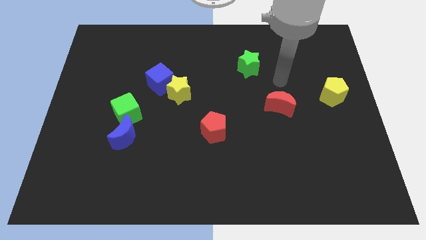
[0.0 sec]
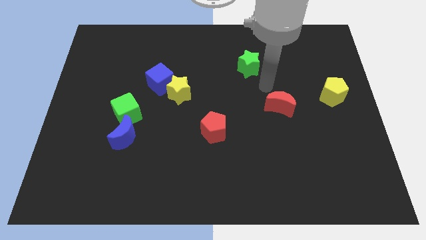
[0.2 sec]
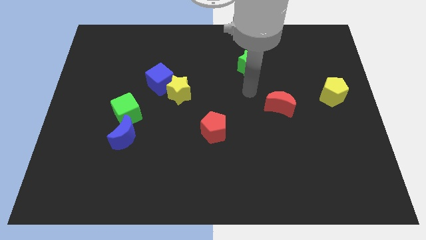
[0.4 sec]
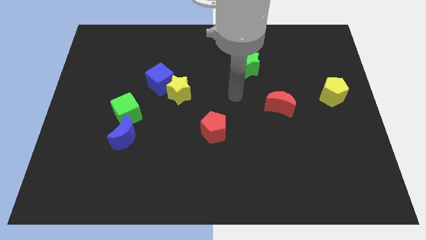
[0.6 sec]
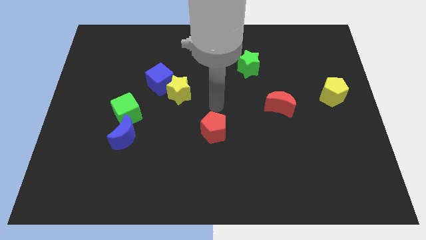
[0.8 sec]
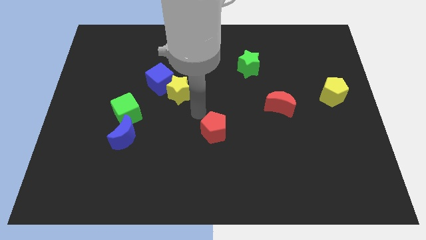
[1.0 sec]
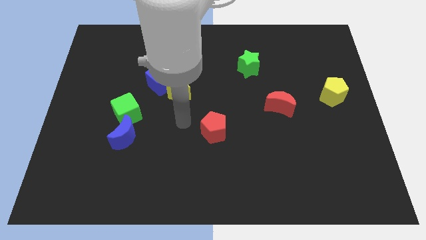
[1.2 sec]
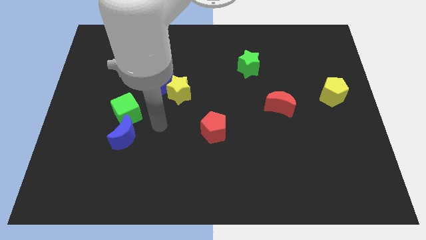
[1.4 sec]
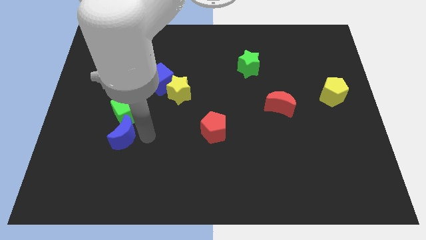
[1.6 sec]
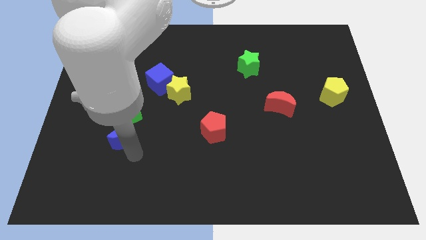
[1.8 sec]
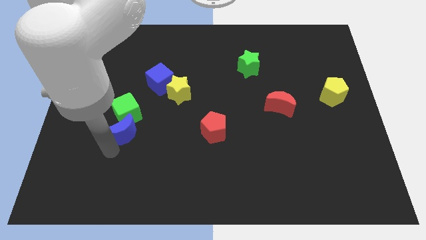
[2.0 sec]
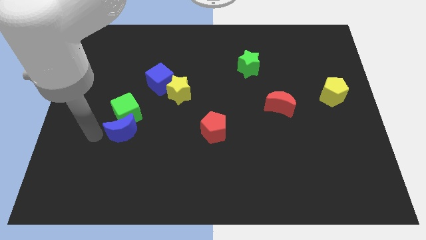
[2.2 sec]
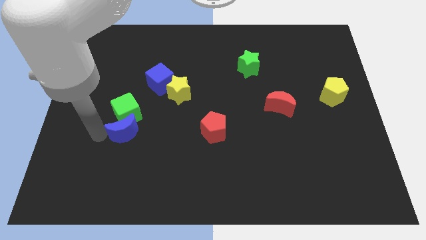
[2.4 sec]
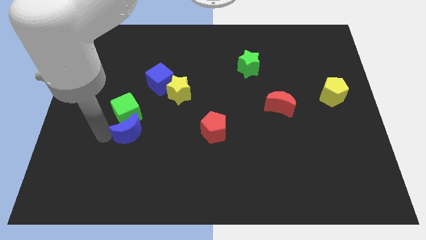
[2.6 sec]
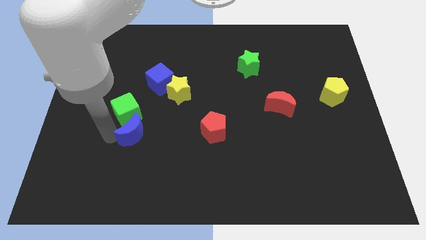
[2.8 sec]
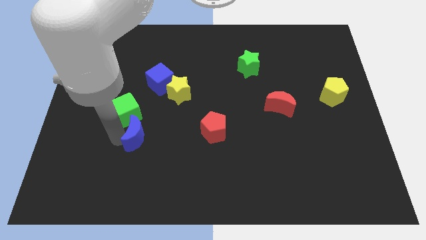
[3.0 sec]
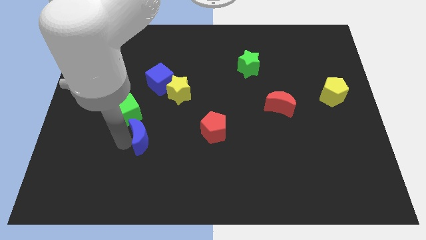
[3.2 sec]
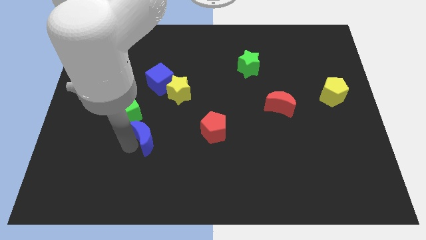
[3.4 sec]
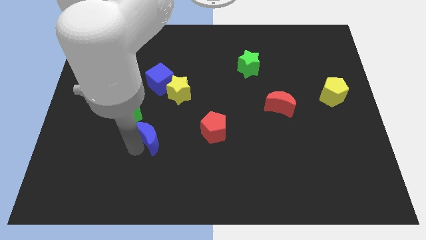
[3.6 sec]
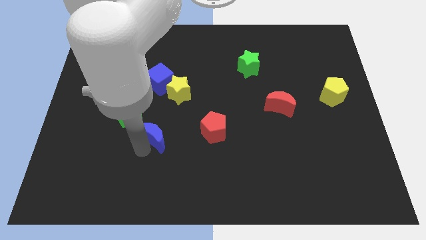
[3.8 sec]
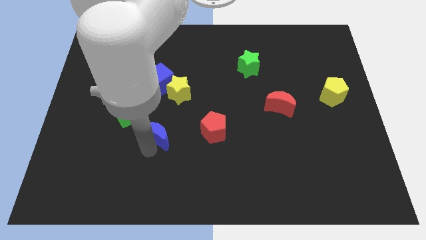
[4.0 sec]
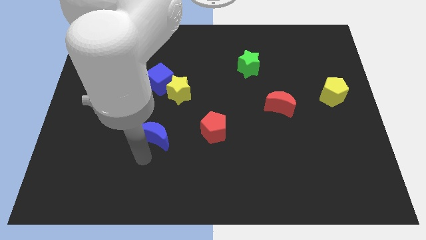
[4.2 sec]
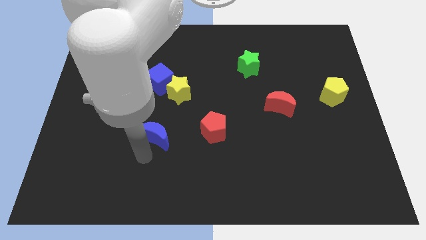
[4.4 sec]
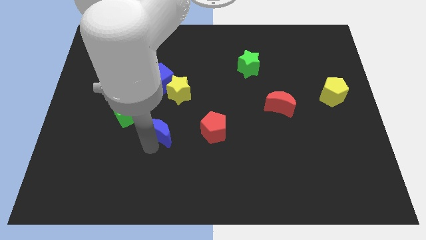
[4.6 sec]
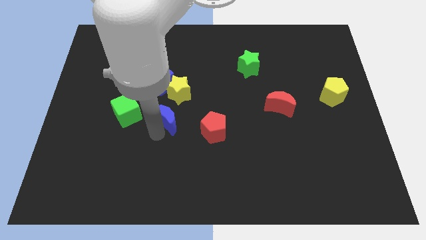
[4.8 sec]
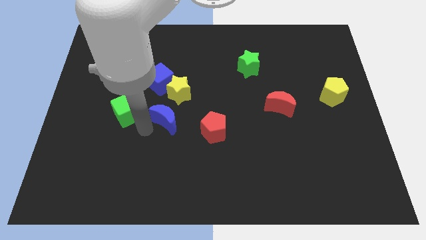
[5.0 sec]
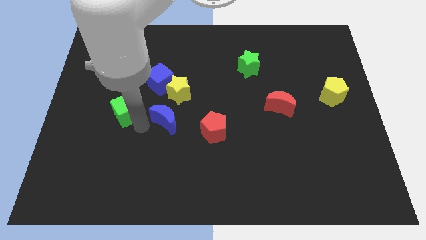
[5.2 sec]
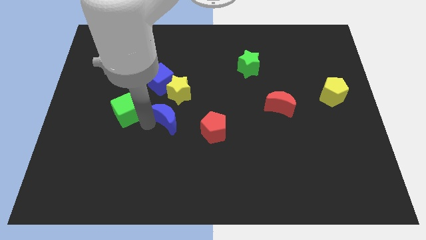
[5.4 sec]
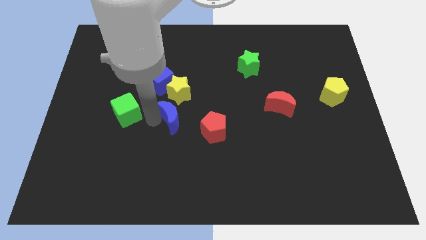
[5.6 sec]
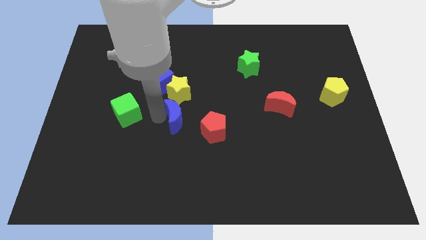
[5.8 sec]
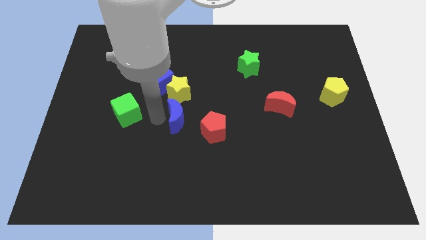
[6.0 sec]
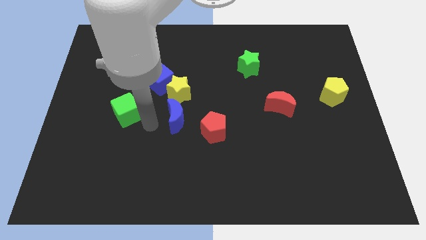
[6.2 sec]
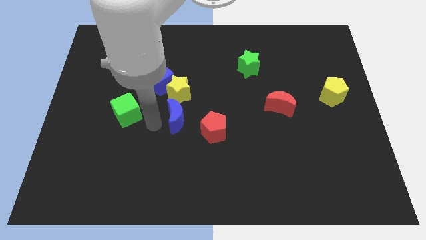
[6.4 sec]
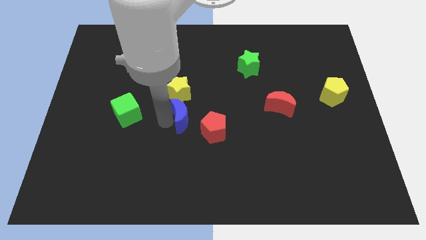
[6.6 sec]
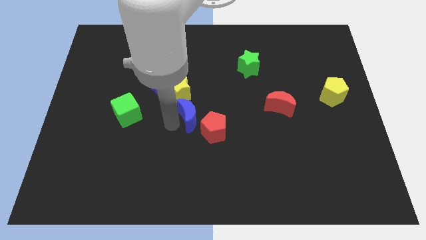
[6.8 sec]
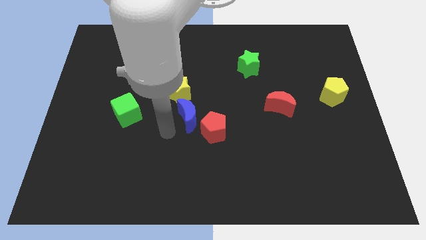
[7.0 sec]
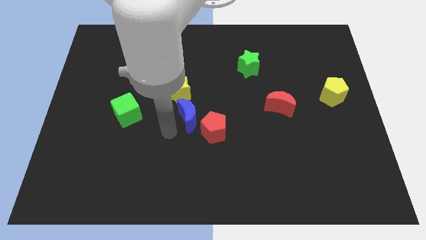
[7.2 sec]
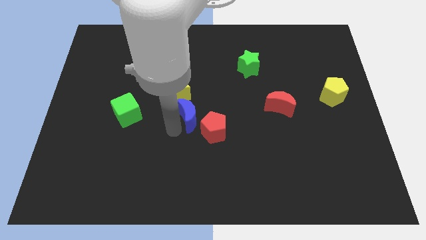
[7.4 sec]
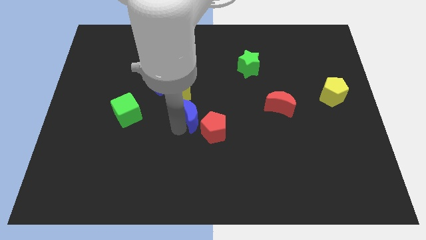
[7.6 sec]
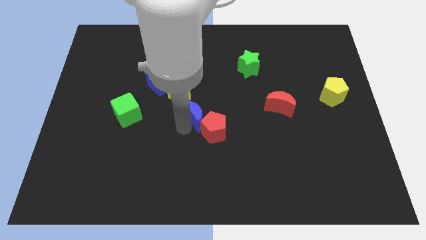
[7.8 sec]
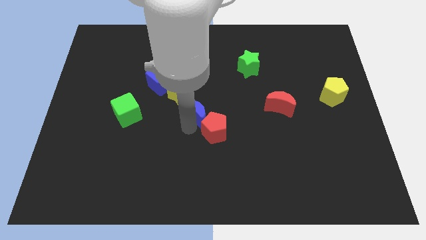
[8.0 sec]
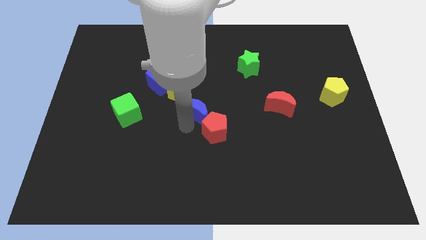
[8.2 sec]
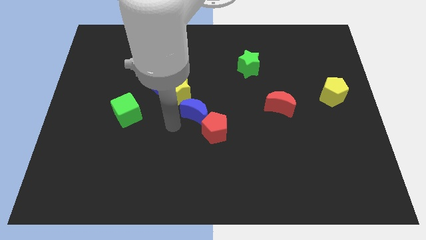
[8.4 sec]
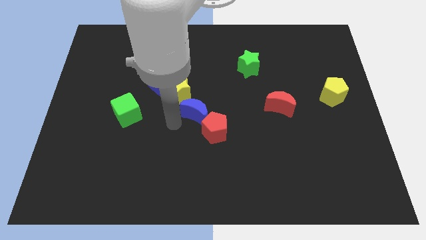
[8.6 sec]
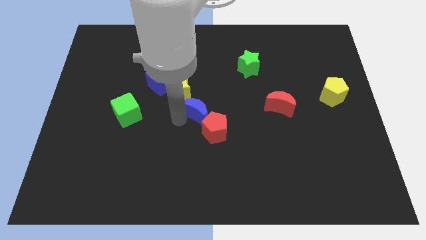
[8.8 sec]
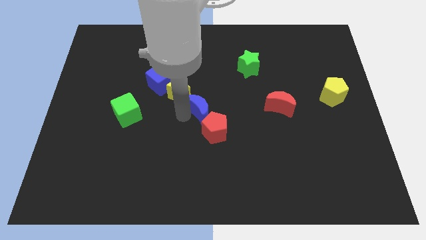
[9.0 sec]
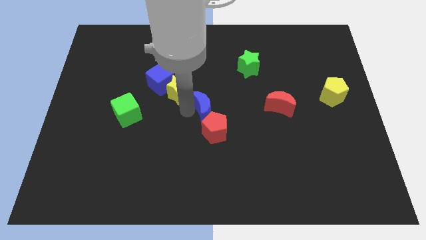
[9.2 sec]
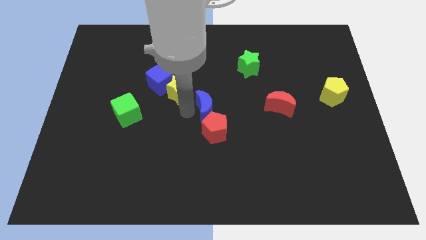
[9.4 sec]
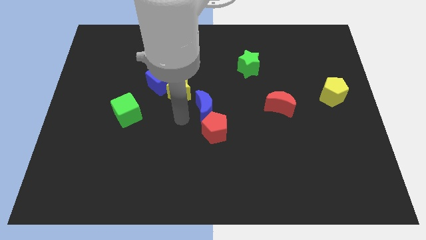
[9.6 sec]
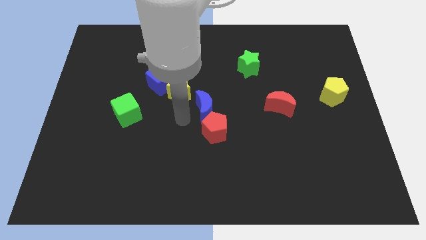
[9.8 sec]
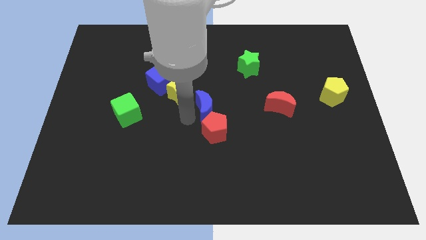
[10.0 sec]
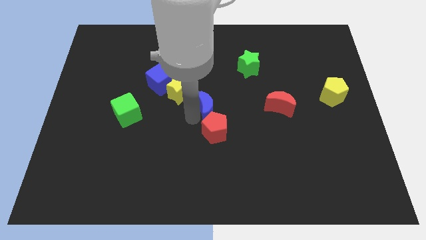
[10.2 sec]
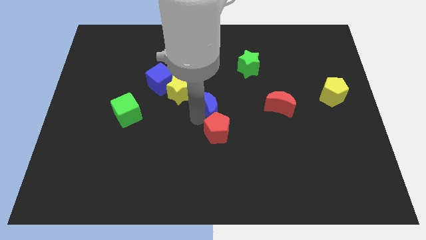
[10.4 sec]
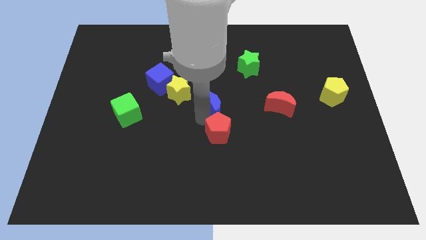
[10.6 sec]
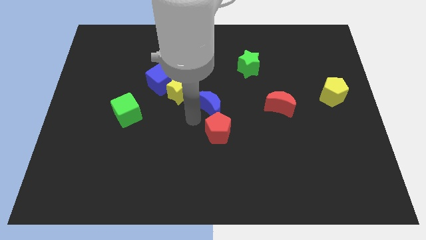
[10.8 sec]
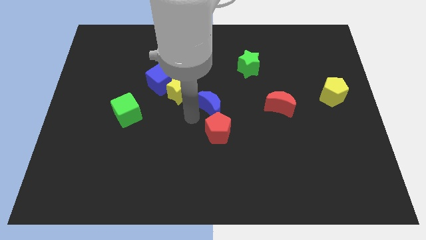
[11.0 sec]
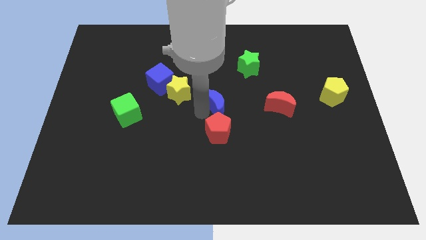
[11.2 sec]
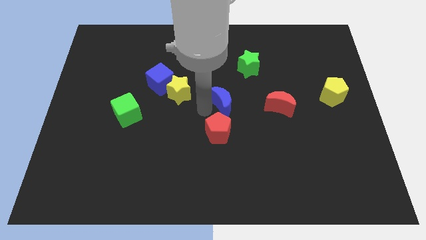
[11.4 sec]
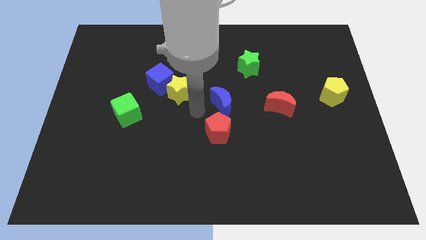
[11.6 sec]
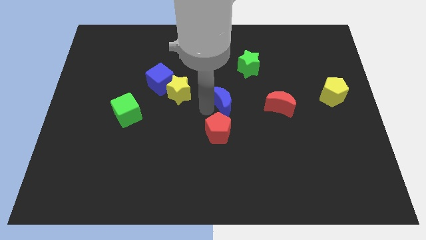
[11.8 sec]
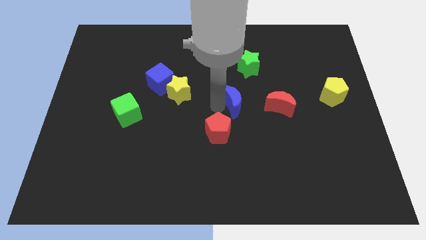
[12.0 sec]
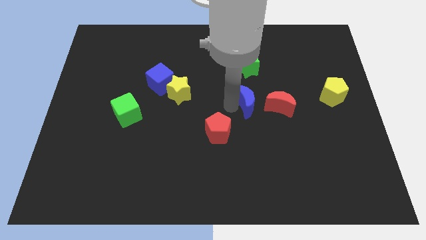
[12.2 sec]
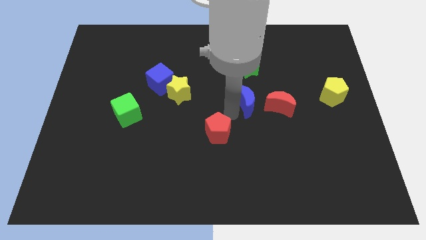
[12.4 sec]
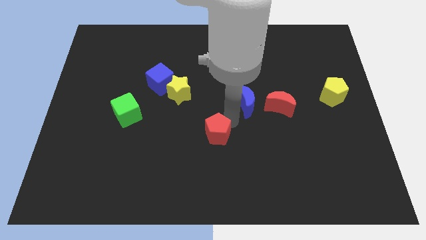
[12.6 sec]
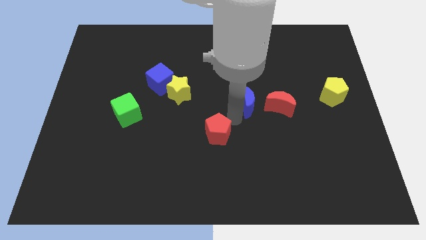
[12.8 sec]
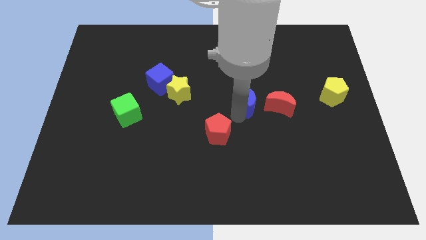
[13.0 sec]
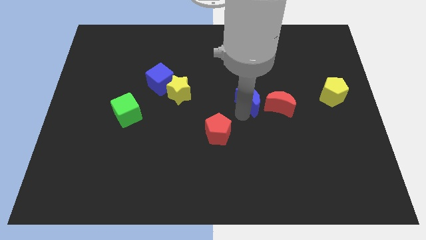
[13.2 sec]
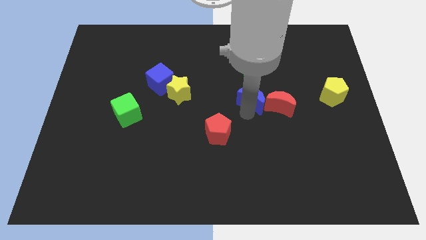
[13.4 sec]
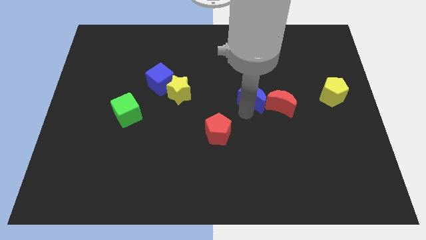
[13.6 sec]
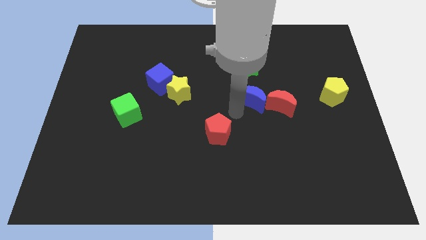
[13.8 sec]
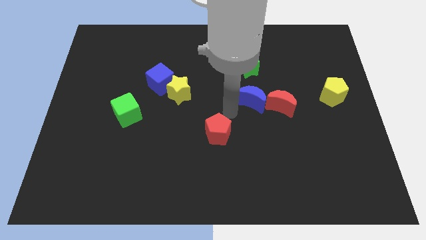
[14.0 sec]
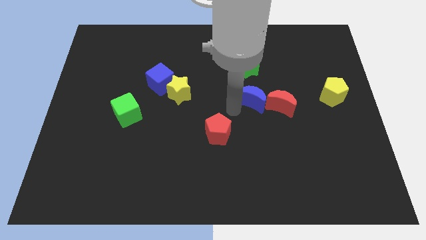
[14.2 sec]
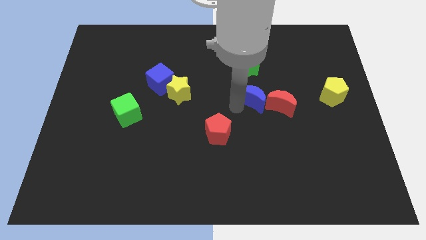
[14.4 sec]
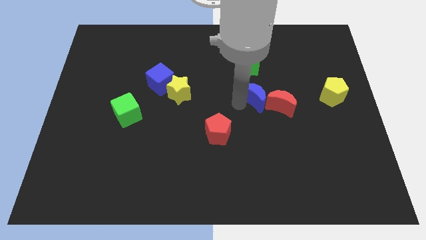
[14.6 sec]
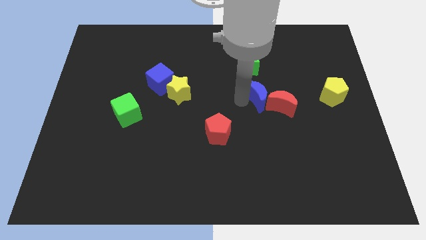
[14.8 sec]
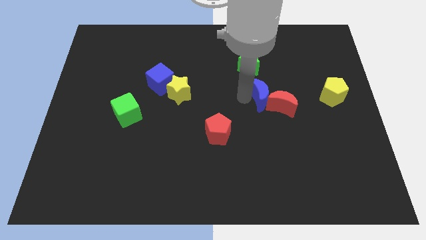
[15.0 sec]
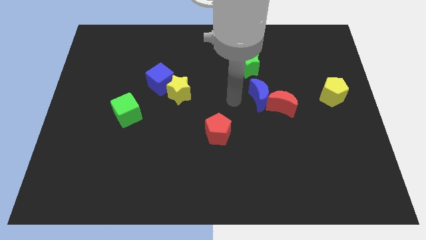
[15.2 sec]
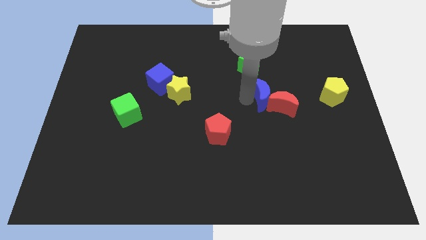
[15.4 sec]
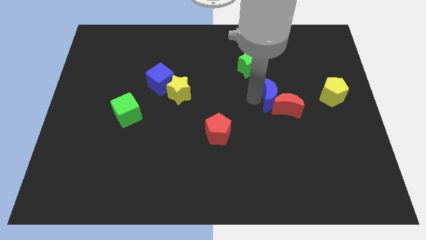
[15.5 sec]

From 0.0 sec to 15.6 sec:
slide the blue moon left of the yellow pentagon
